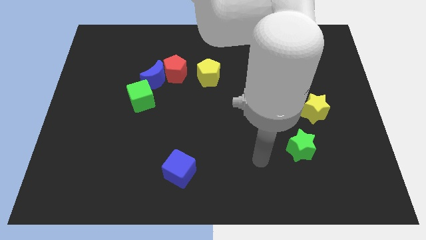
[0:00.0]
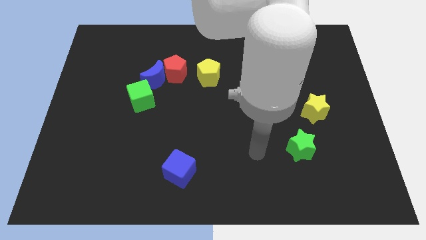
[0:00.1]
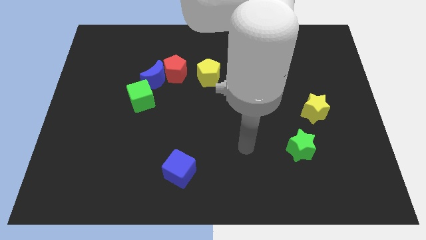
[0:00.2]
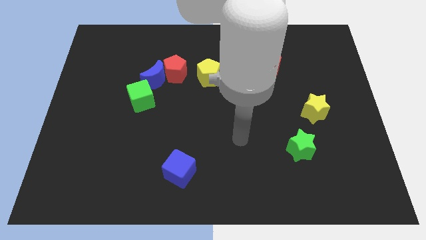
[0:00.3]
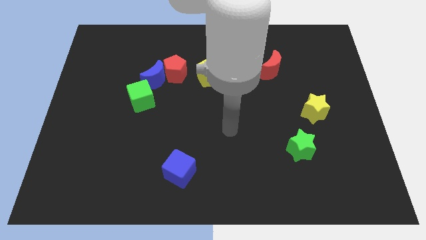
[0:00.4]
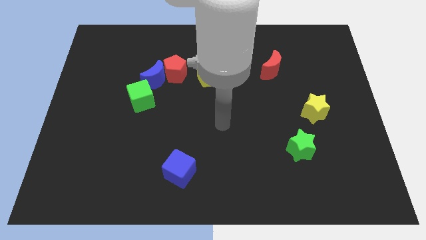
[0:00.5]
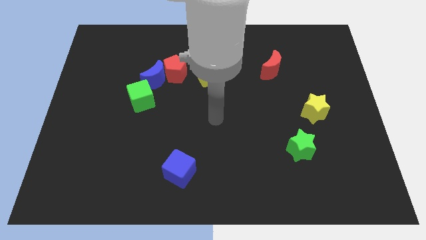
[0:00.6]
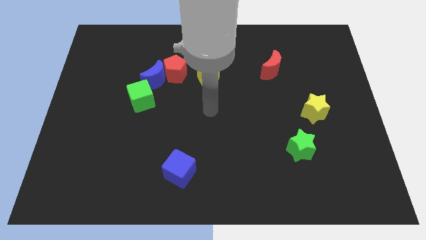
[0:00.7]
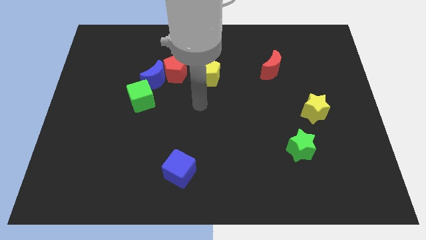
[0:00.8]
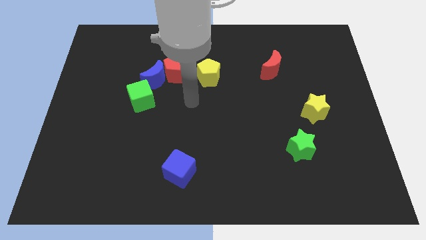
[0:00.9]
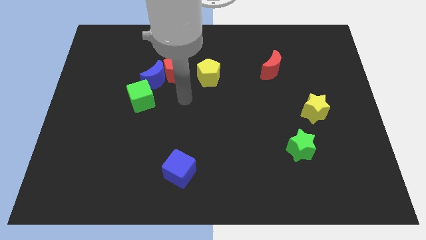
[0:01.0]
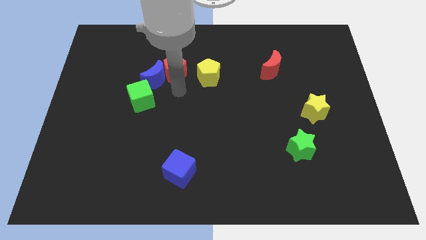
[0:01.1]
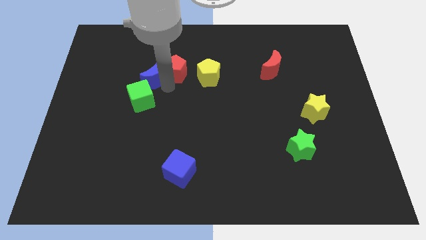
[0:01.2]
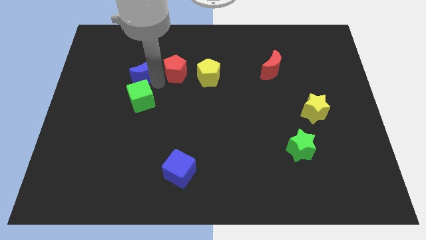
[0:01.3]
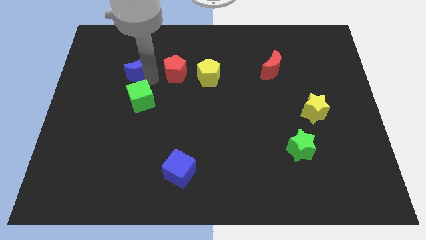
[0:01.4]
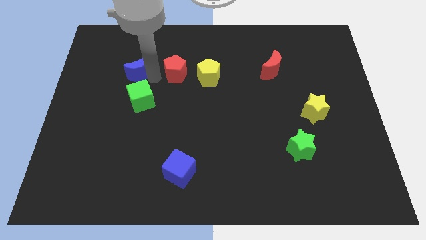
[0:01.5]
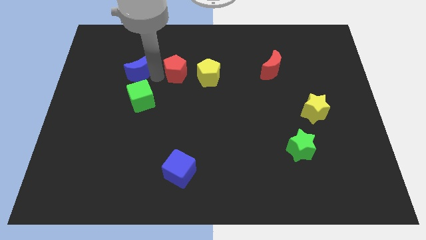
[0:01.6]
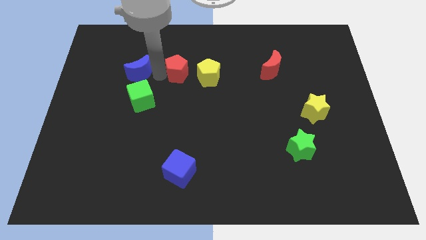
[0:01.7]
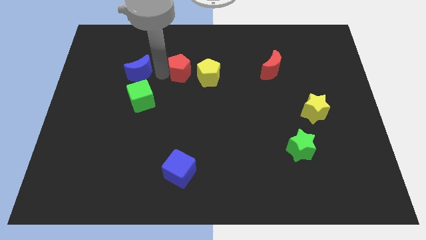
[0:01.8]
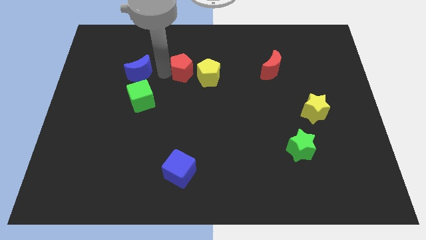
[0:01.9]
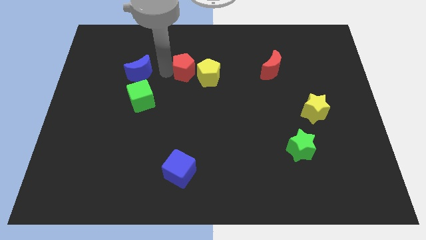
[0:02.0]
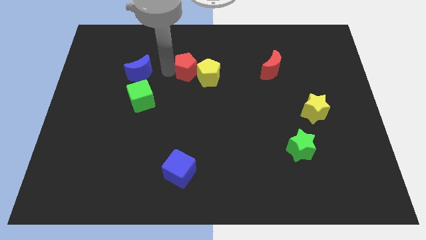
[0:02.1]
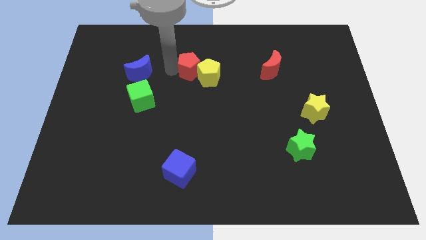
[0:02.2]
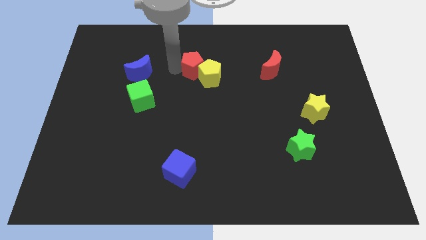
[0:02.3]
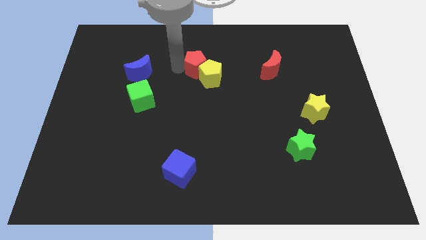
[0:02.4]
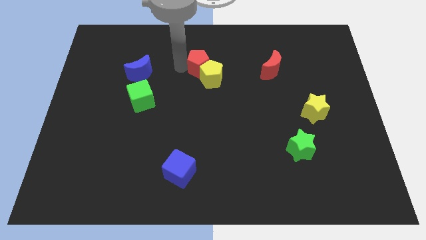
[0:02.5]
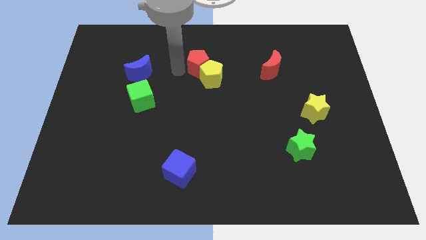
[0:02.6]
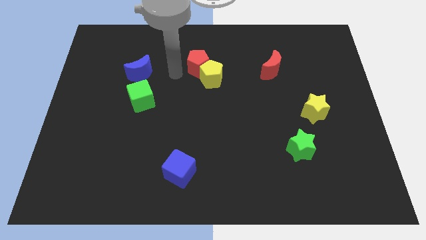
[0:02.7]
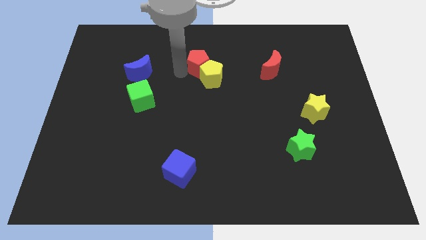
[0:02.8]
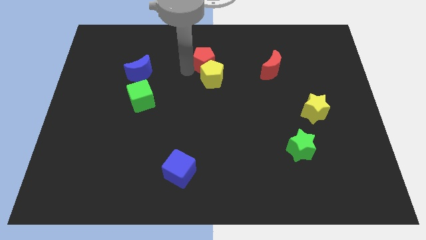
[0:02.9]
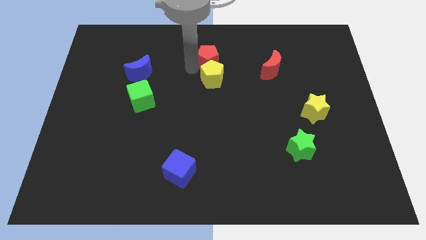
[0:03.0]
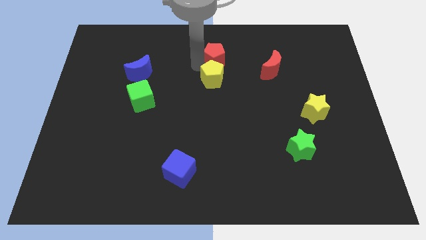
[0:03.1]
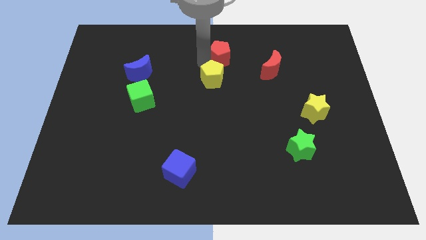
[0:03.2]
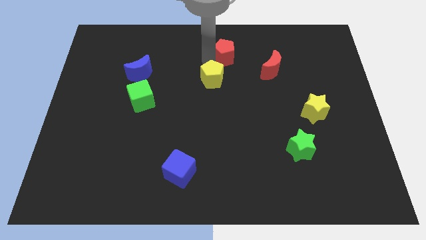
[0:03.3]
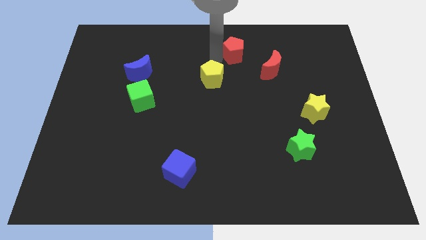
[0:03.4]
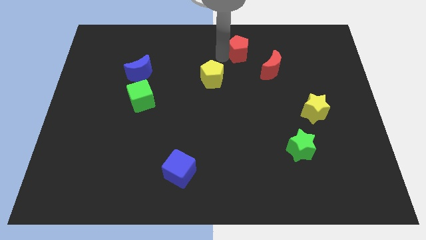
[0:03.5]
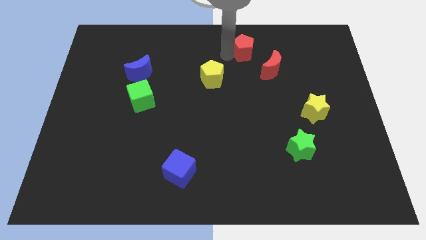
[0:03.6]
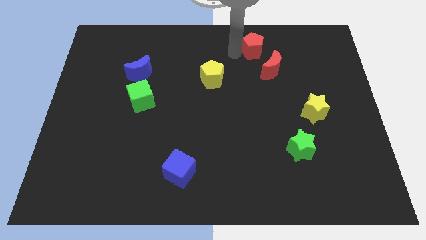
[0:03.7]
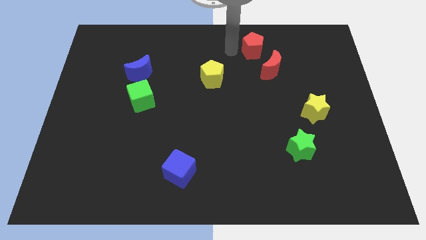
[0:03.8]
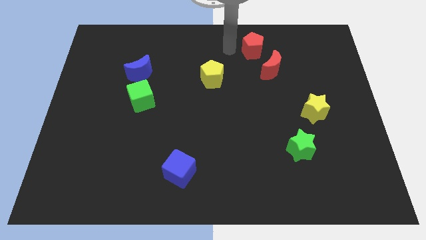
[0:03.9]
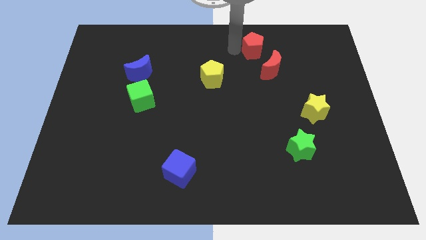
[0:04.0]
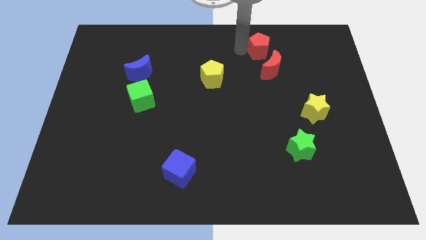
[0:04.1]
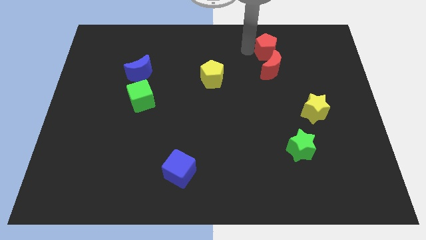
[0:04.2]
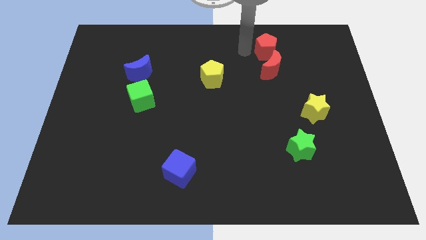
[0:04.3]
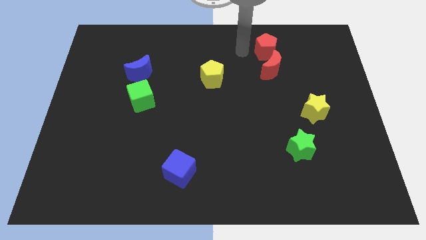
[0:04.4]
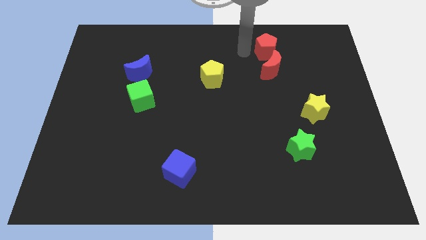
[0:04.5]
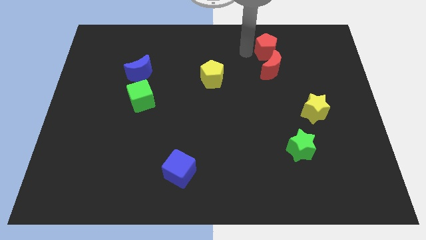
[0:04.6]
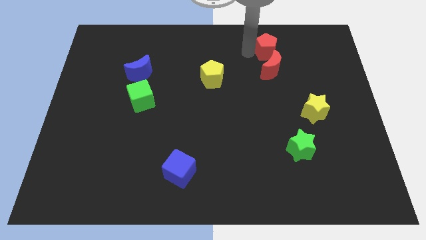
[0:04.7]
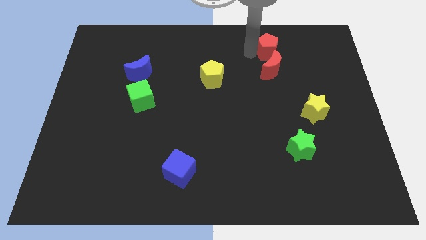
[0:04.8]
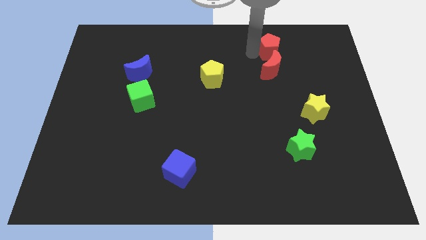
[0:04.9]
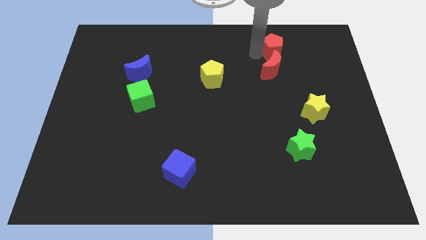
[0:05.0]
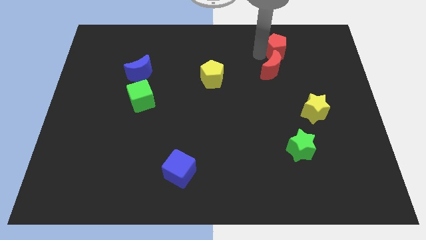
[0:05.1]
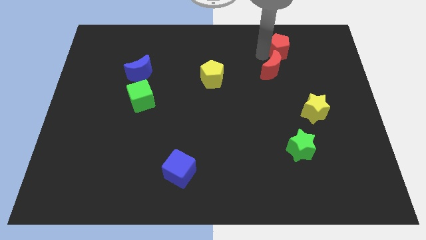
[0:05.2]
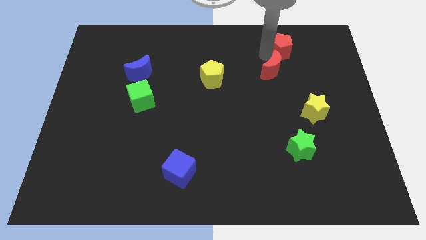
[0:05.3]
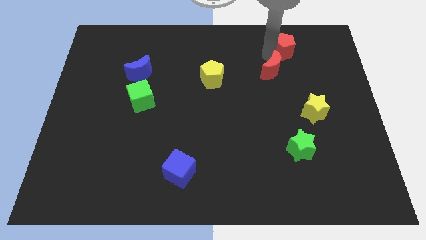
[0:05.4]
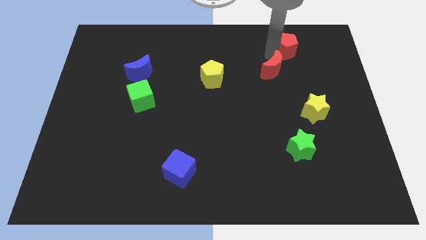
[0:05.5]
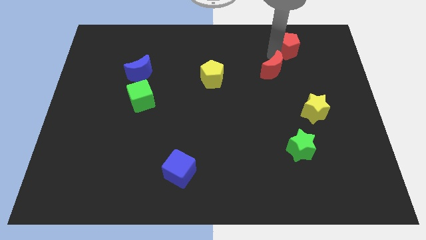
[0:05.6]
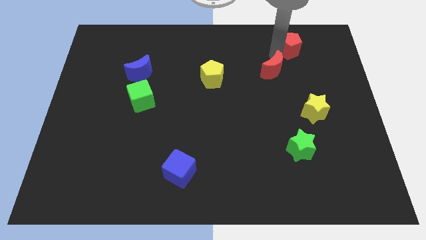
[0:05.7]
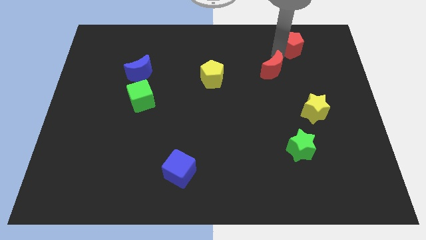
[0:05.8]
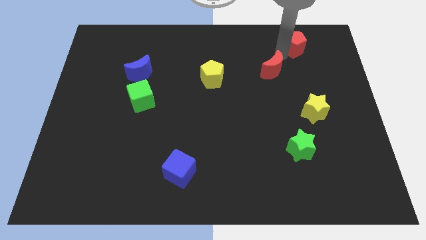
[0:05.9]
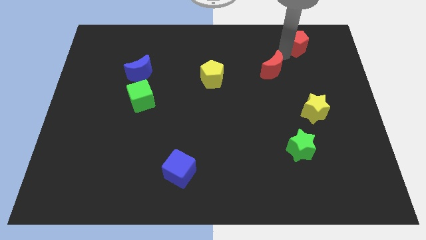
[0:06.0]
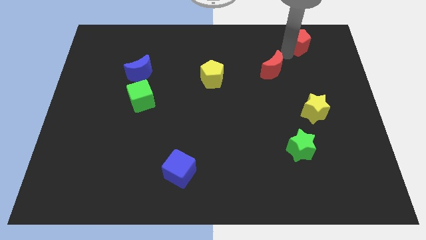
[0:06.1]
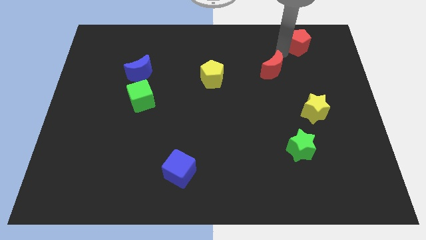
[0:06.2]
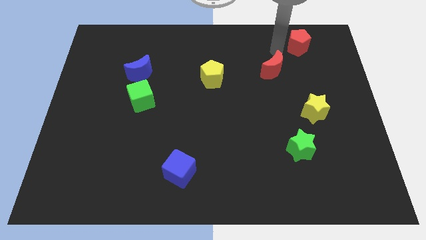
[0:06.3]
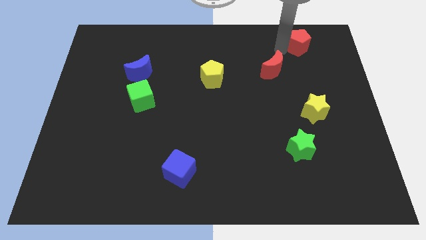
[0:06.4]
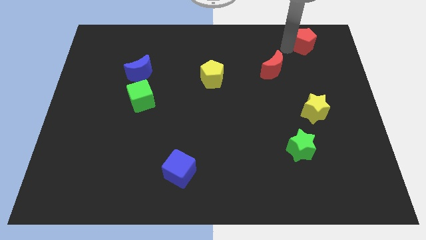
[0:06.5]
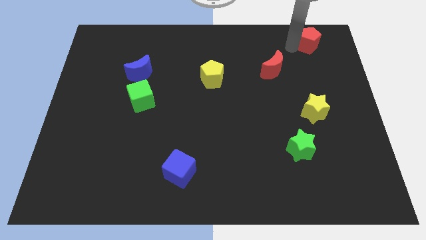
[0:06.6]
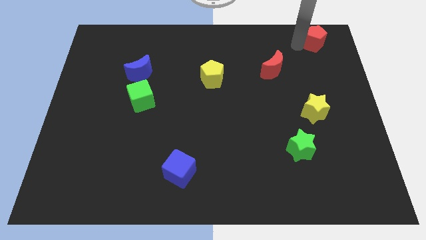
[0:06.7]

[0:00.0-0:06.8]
push the red pentagon to the top right corner
